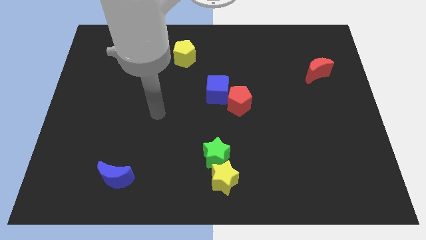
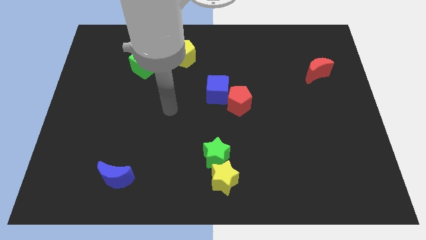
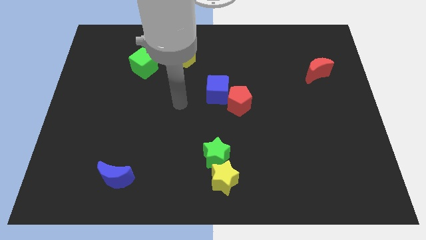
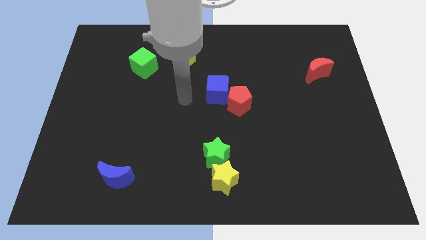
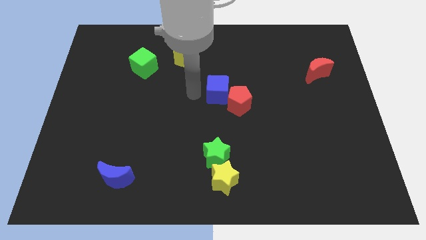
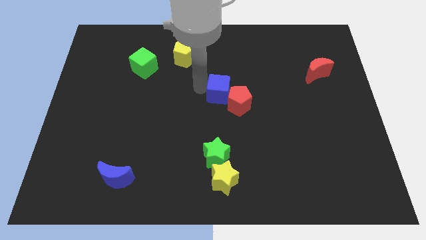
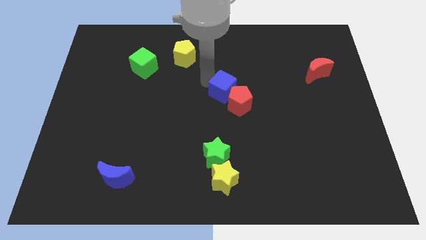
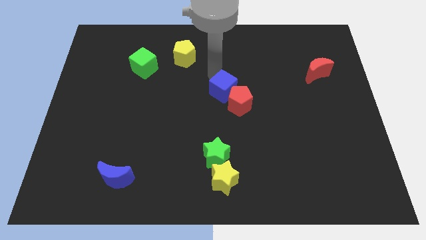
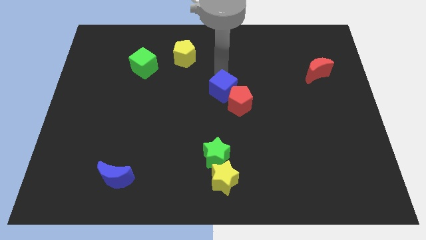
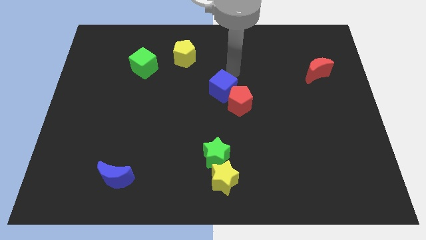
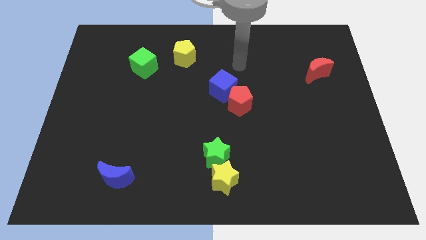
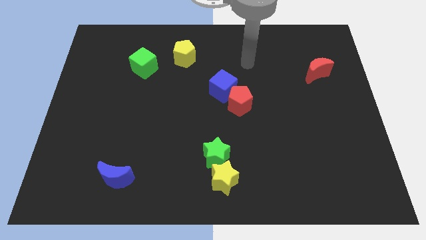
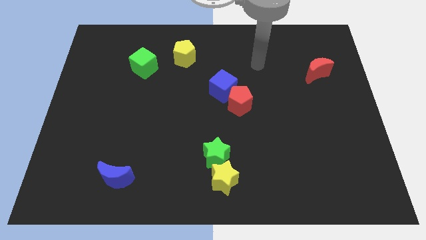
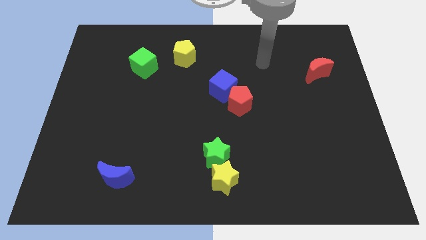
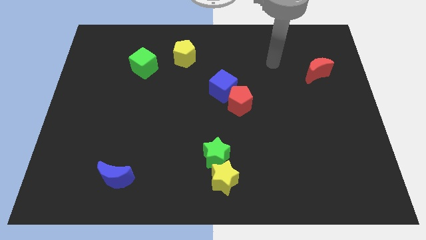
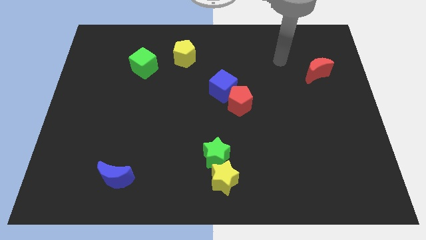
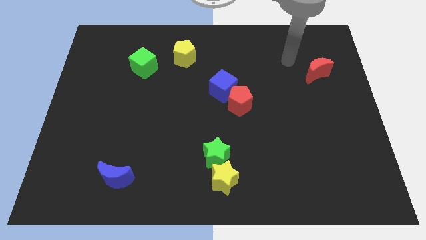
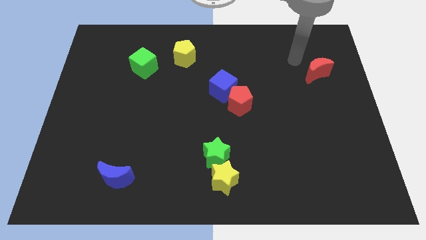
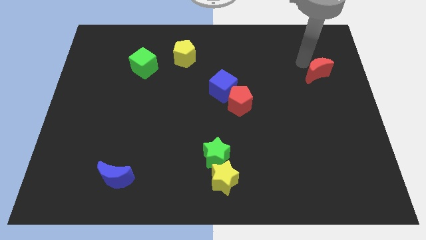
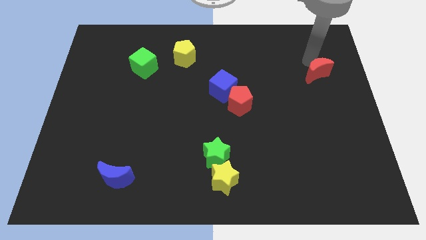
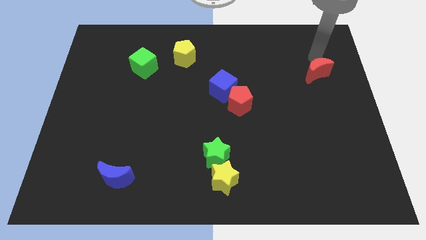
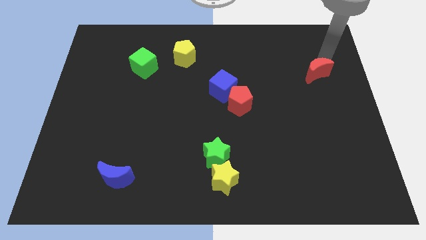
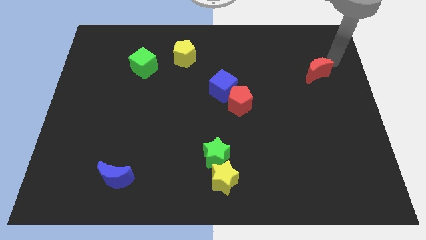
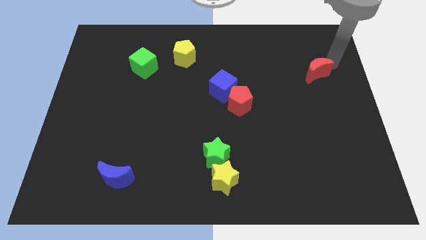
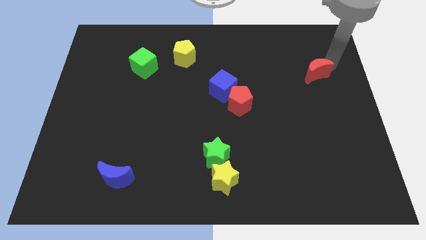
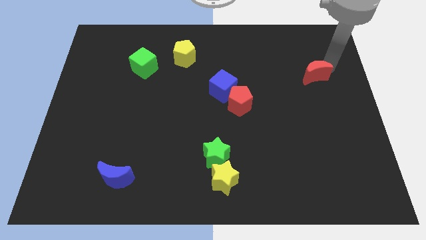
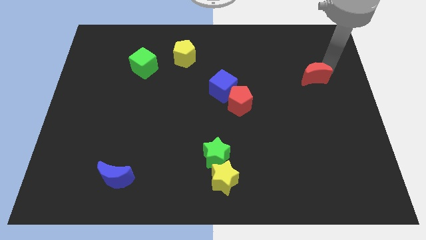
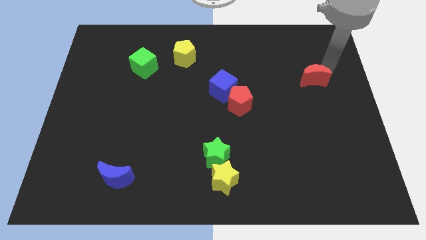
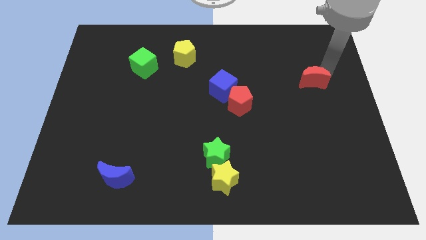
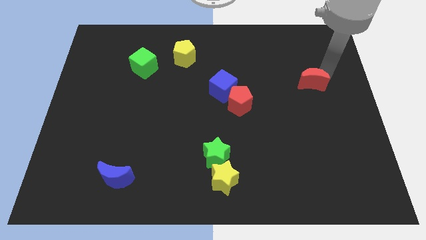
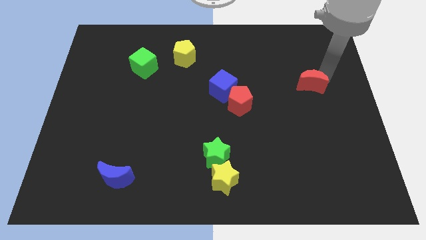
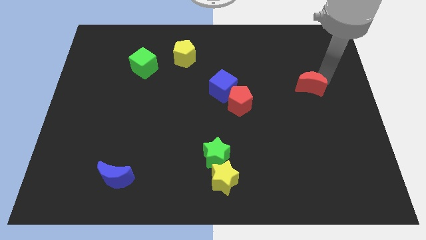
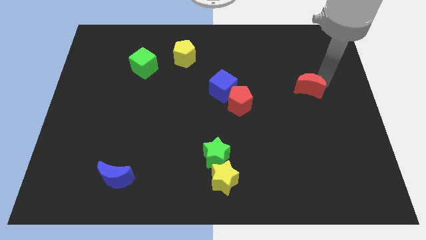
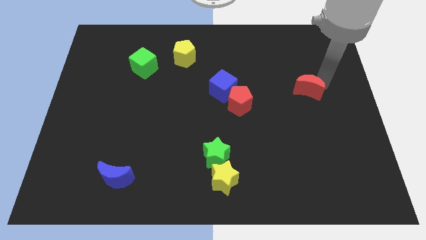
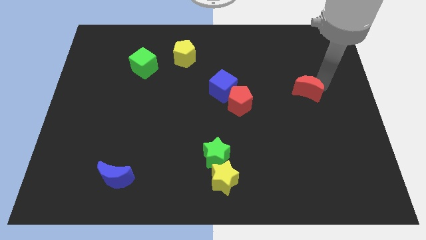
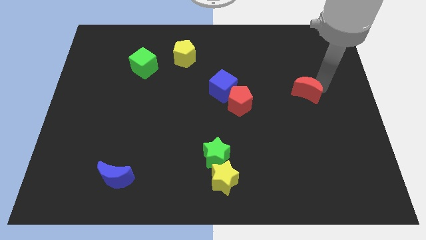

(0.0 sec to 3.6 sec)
move the red moon diagonally downwards and left slightly

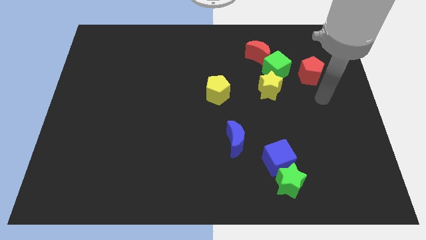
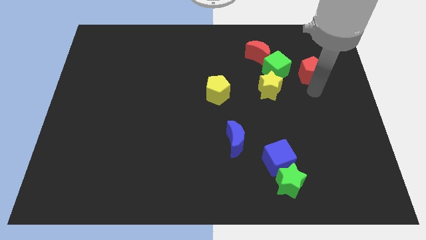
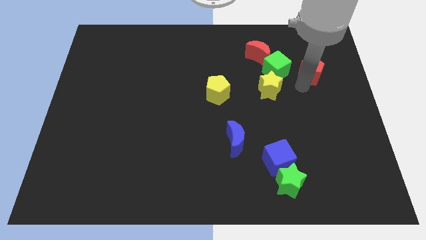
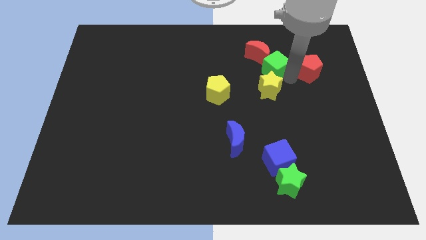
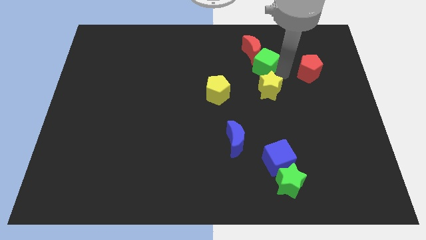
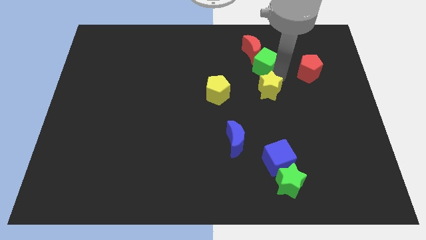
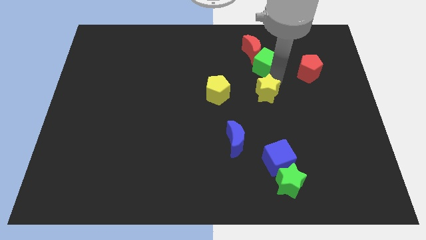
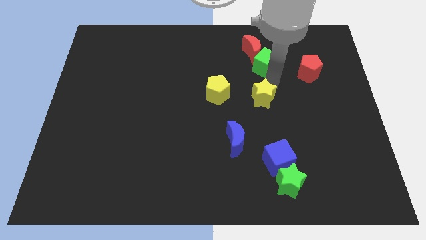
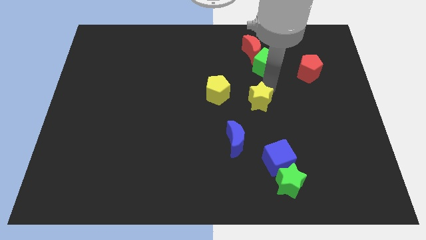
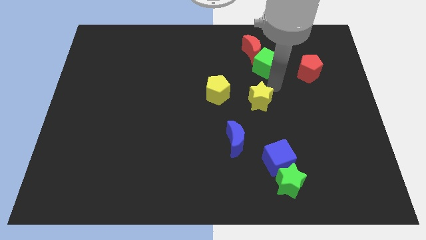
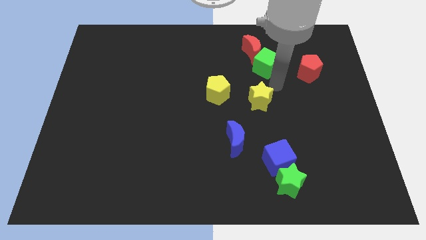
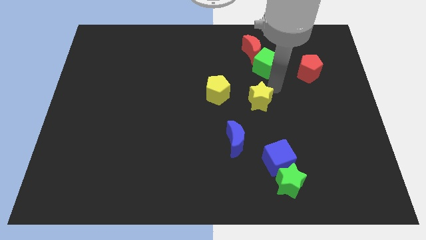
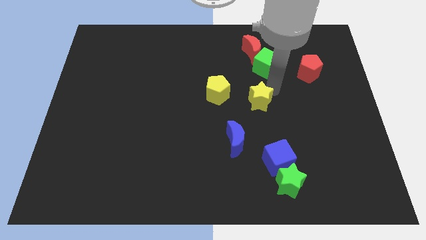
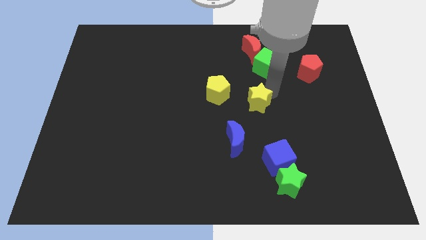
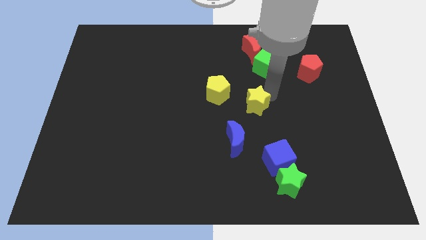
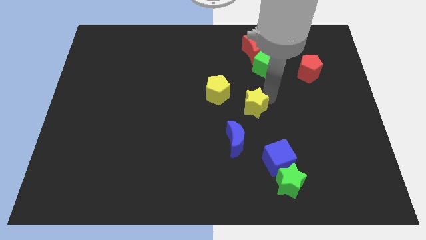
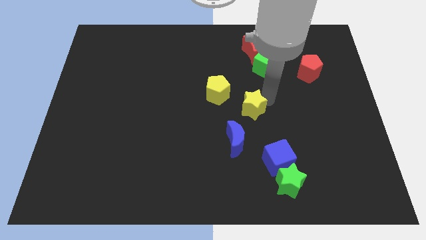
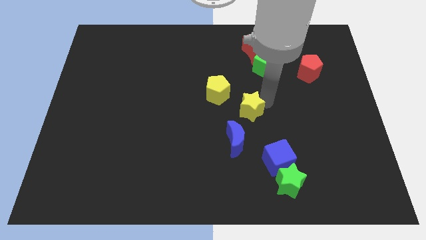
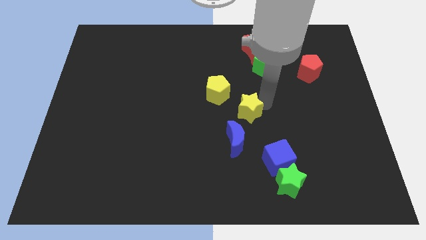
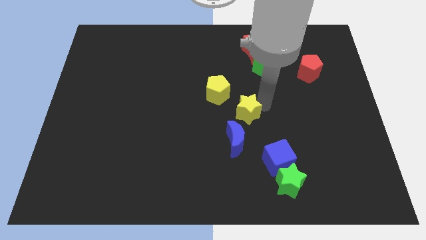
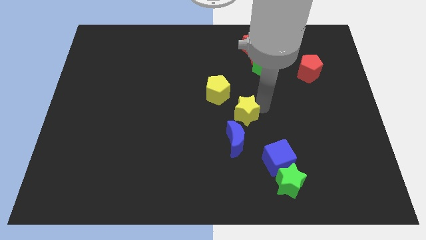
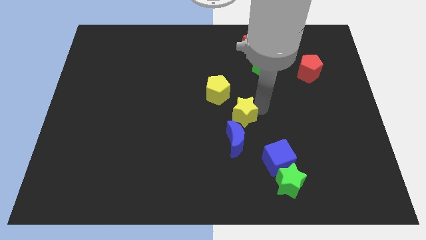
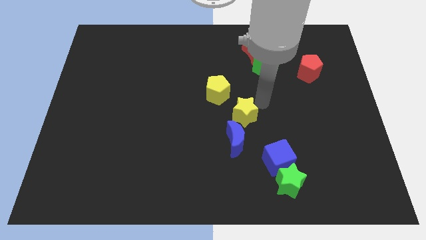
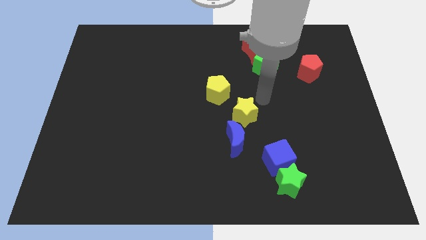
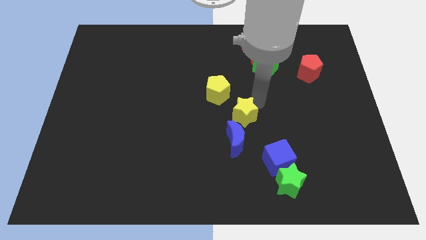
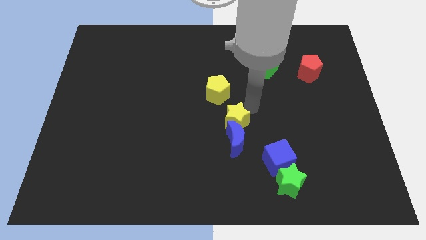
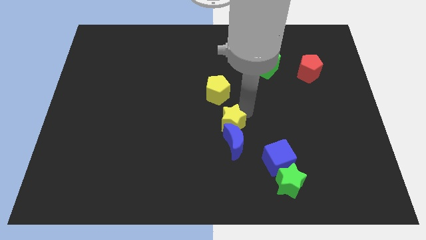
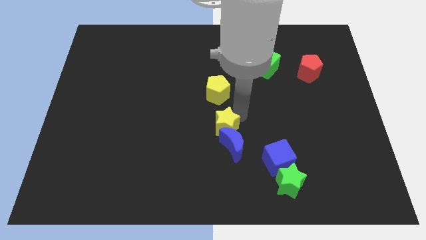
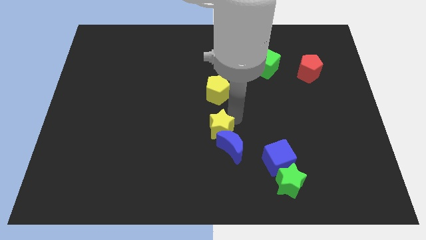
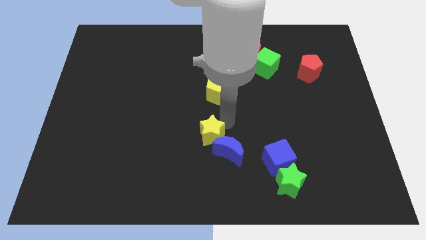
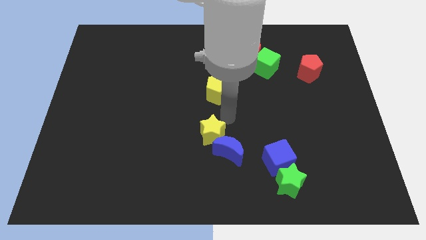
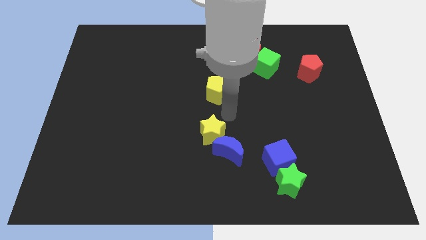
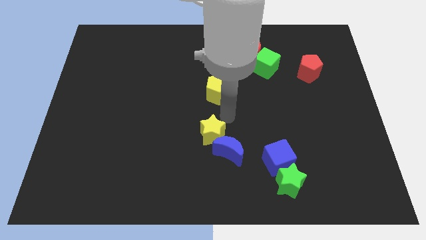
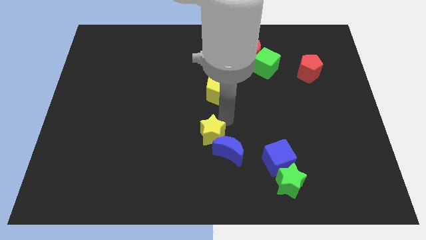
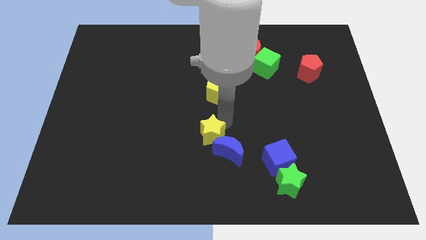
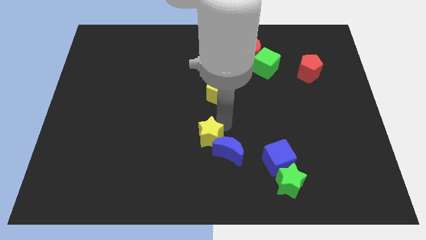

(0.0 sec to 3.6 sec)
push the yellow star down and left

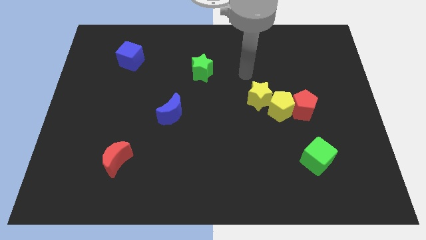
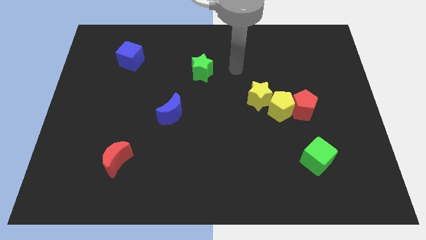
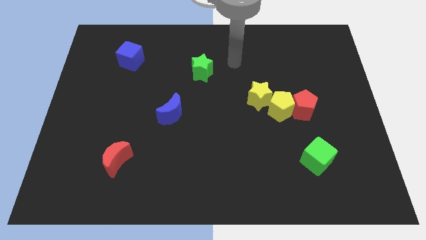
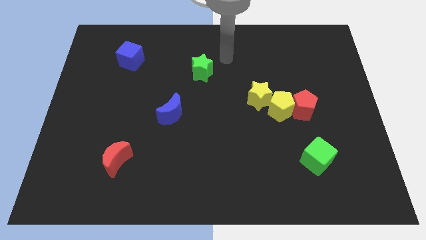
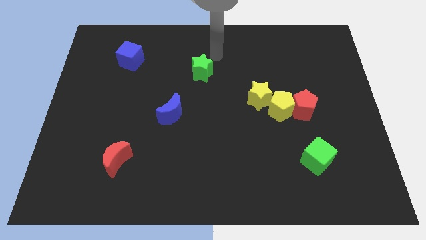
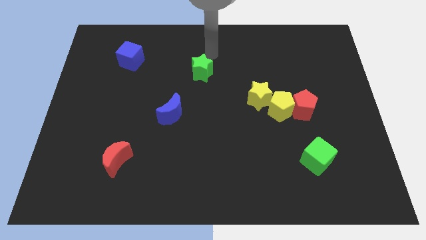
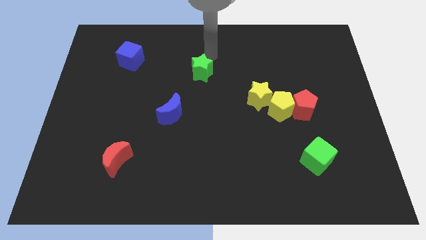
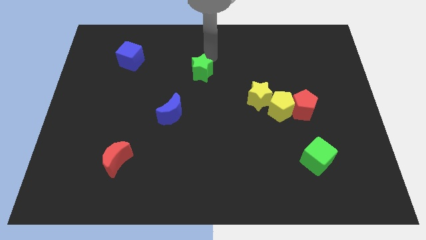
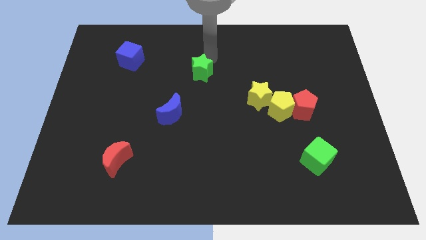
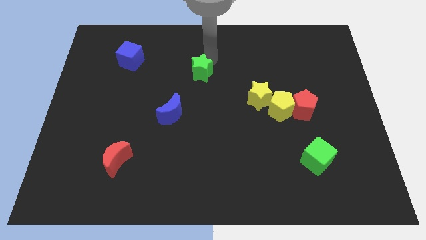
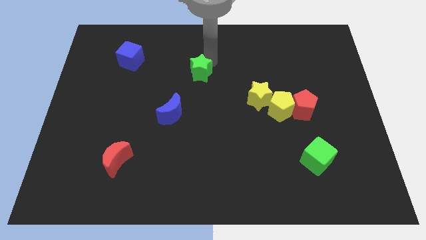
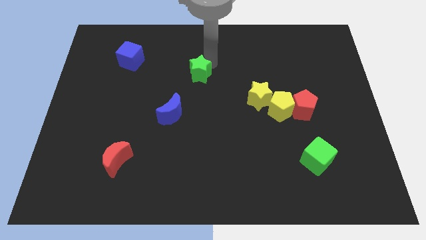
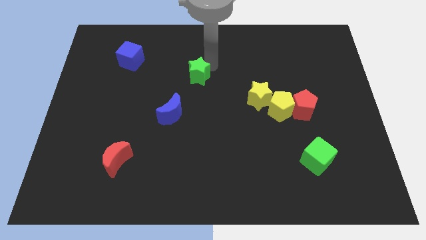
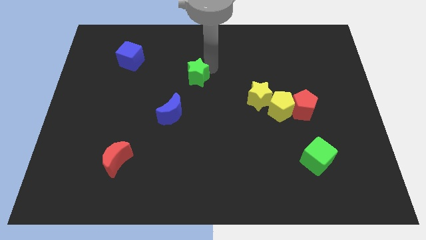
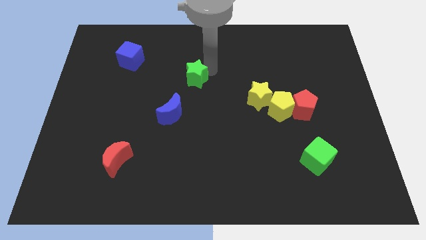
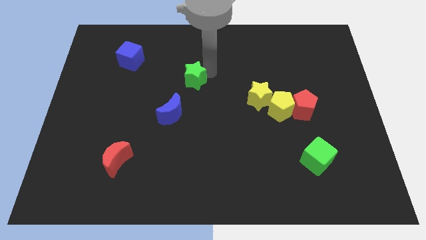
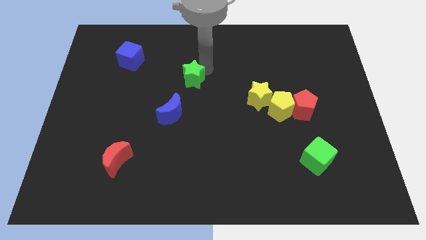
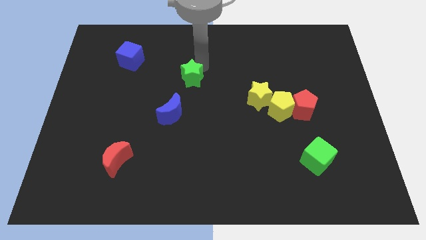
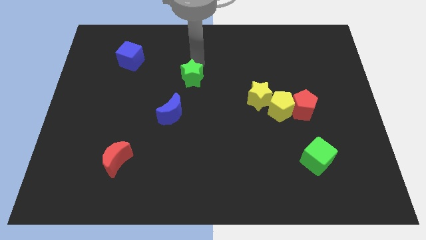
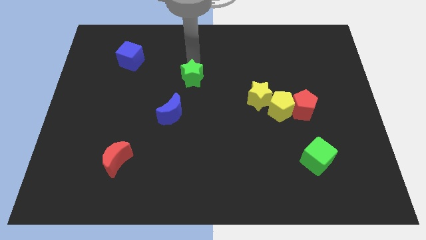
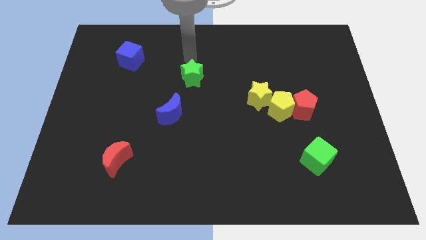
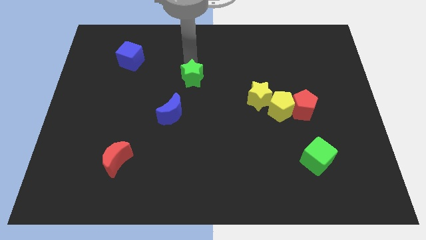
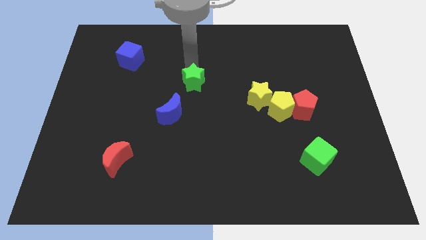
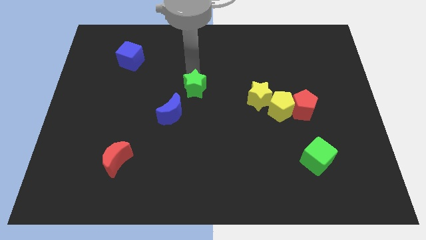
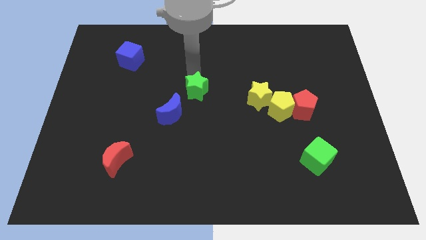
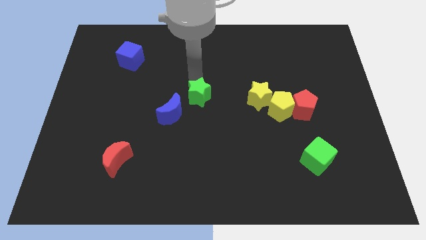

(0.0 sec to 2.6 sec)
push the green star downwards a little
